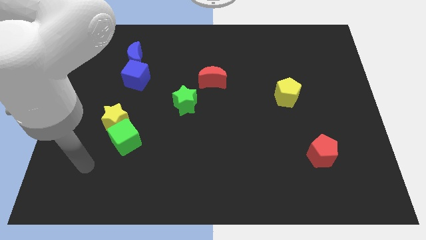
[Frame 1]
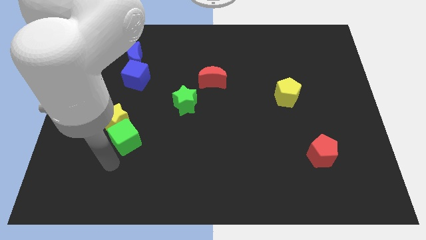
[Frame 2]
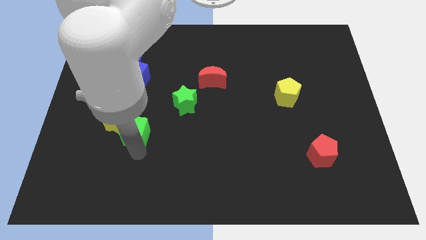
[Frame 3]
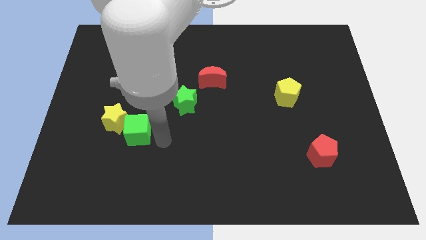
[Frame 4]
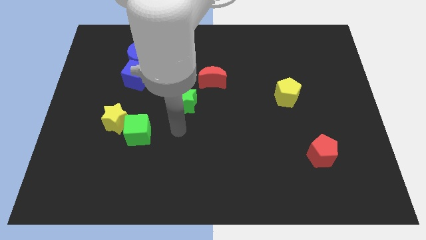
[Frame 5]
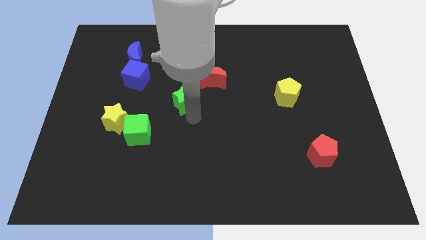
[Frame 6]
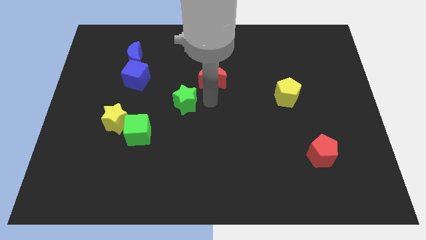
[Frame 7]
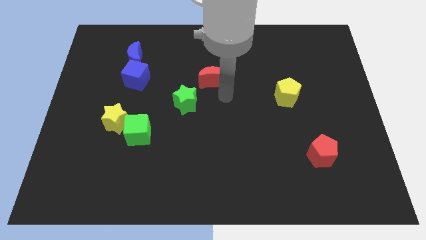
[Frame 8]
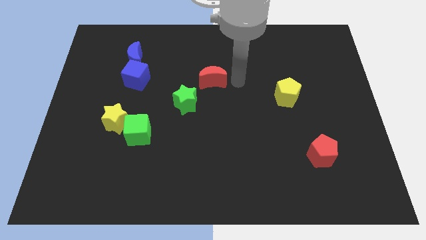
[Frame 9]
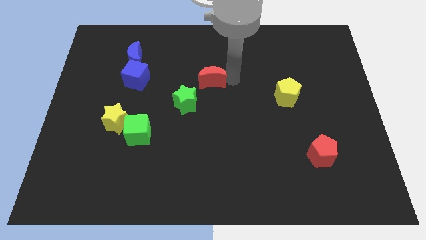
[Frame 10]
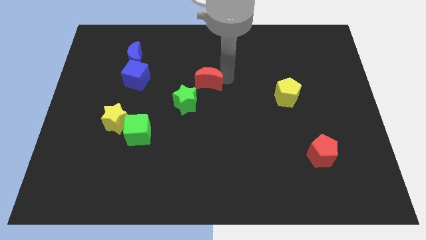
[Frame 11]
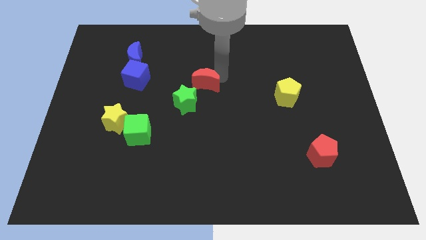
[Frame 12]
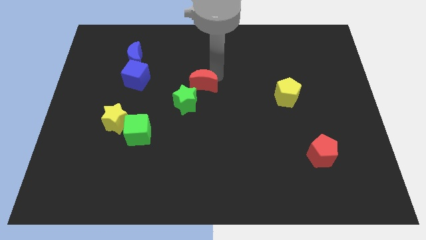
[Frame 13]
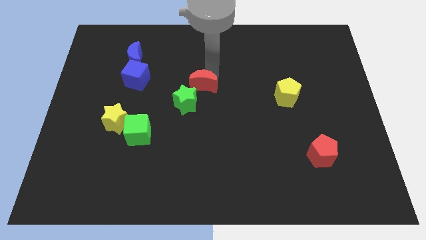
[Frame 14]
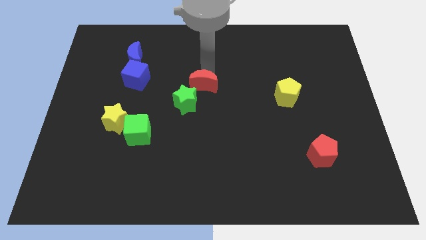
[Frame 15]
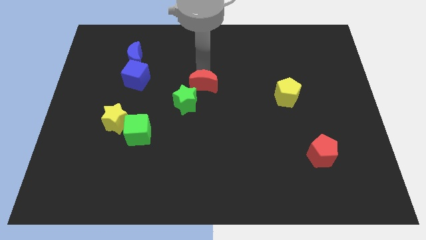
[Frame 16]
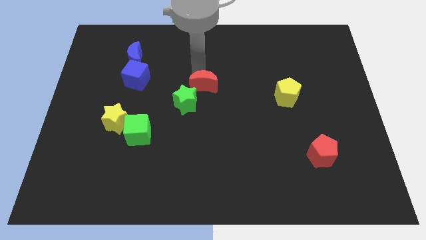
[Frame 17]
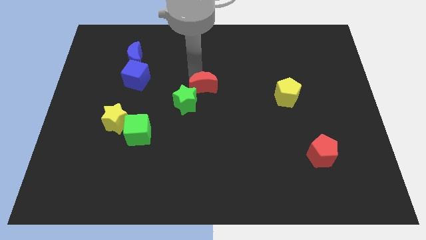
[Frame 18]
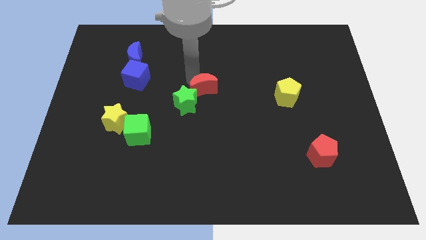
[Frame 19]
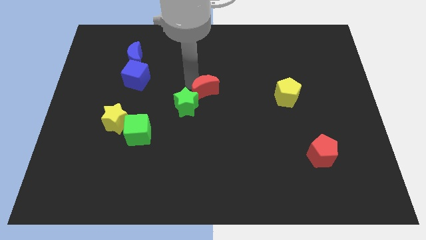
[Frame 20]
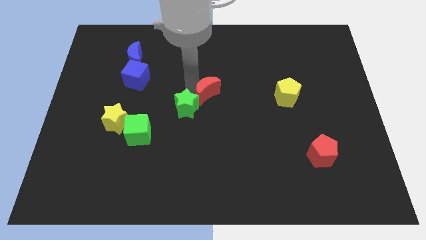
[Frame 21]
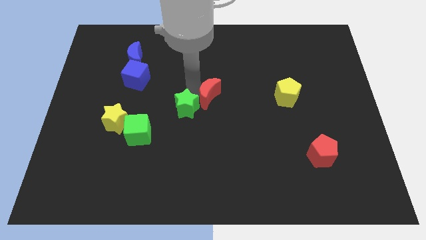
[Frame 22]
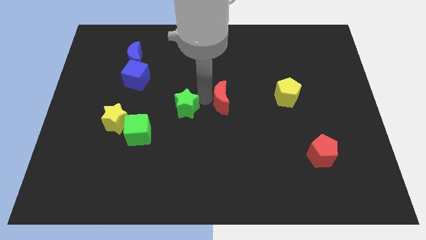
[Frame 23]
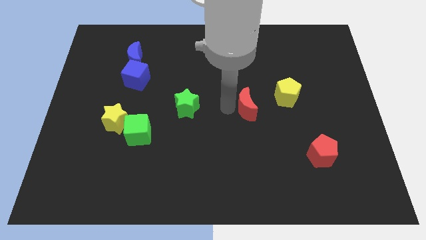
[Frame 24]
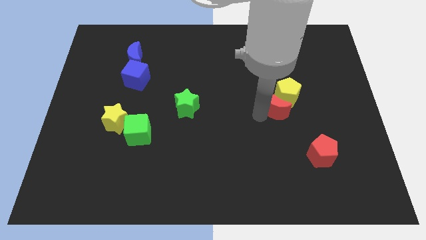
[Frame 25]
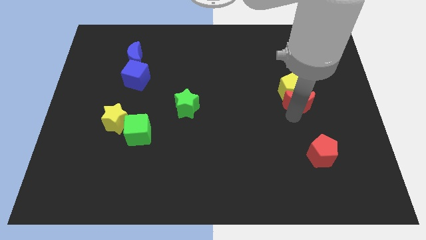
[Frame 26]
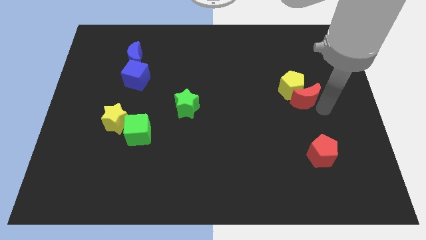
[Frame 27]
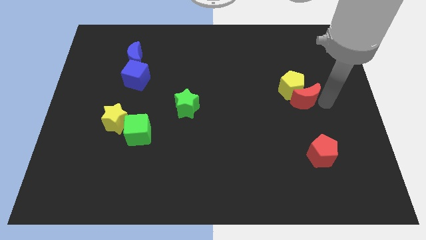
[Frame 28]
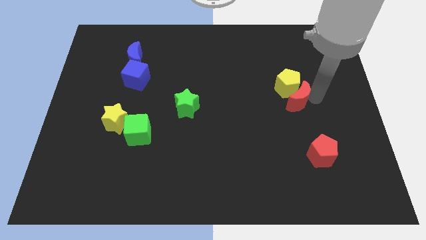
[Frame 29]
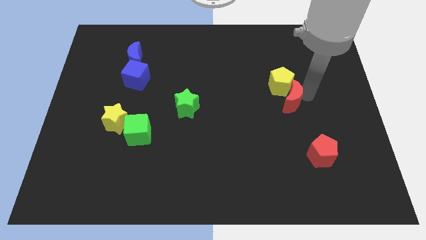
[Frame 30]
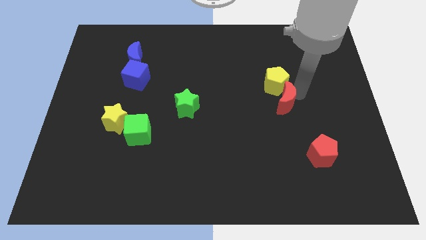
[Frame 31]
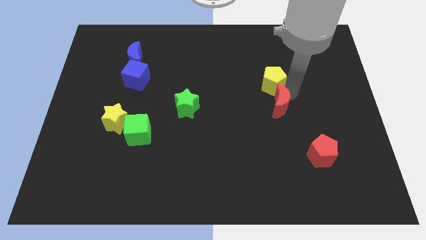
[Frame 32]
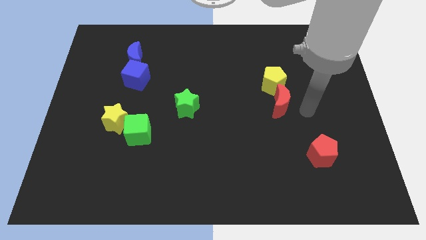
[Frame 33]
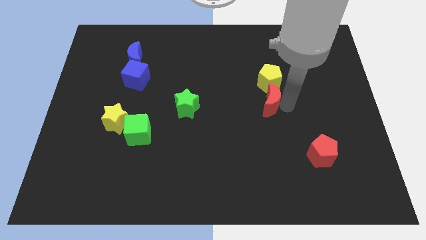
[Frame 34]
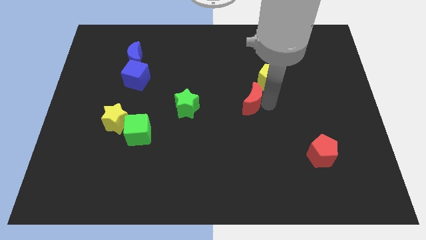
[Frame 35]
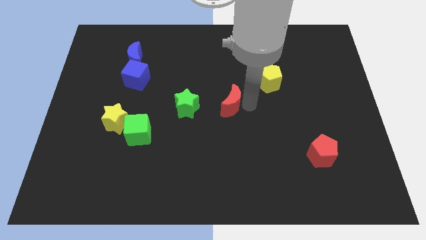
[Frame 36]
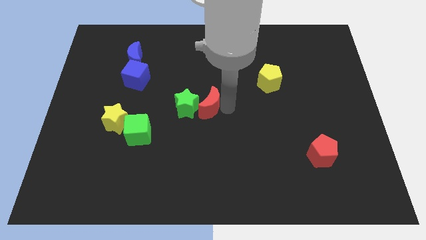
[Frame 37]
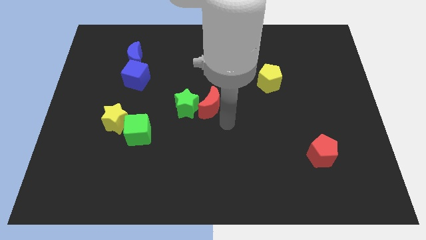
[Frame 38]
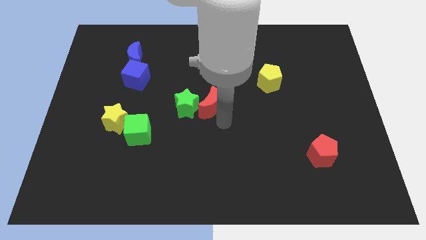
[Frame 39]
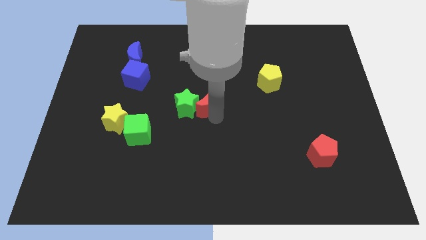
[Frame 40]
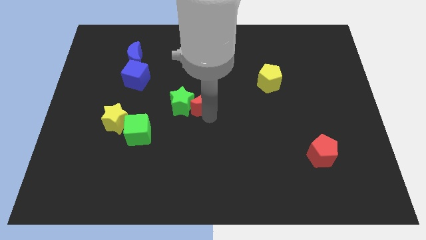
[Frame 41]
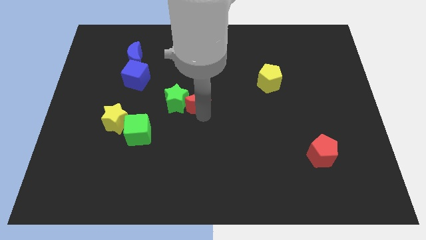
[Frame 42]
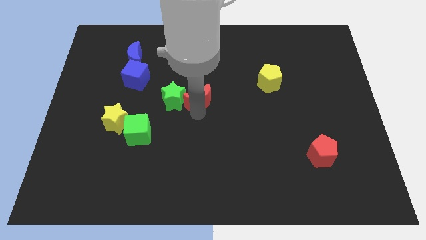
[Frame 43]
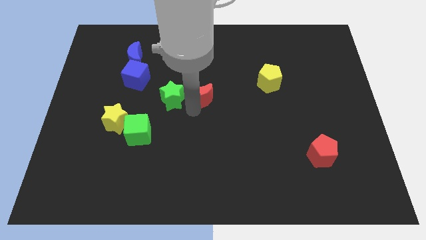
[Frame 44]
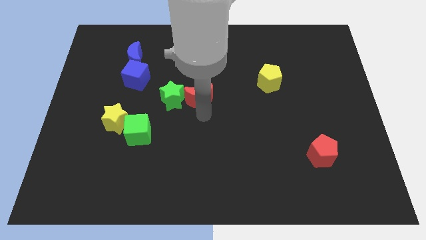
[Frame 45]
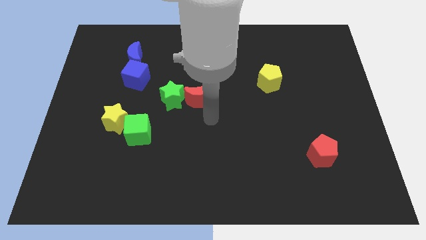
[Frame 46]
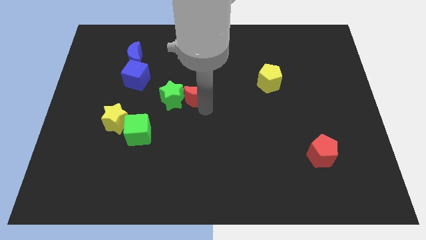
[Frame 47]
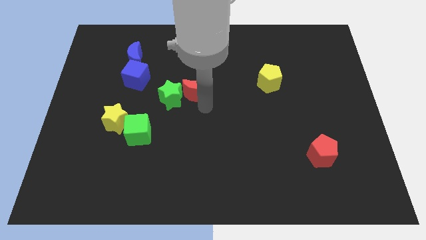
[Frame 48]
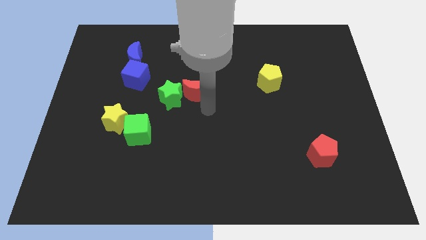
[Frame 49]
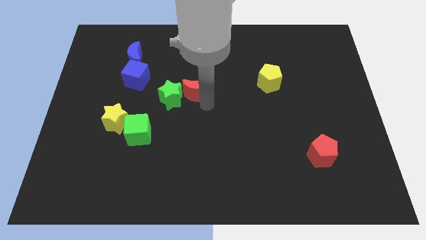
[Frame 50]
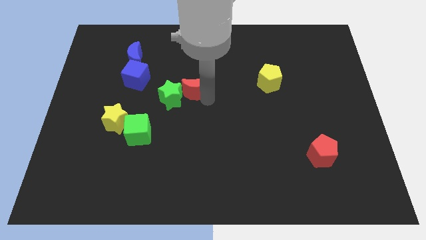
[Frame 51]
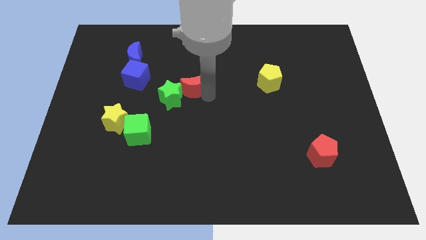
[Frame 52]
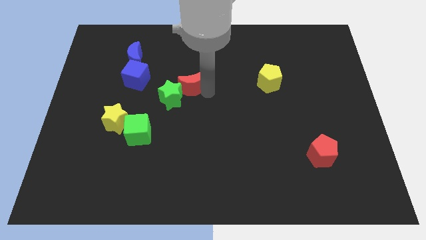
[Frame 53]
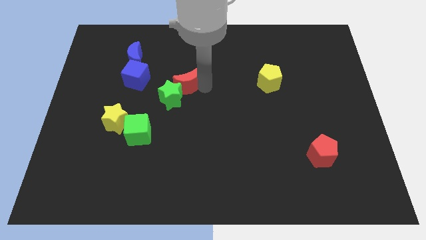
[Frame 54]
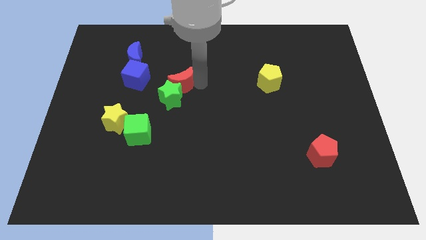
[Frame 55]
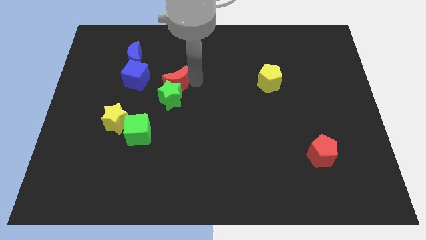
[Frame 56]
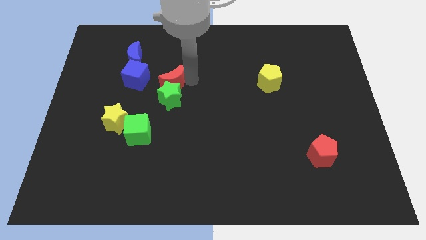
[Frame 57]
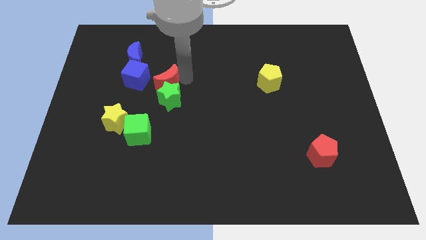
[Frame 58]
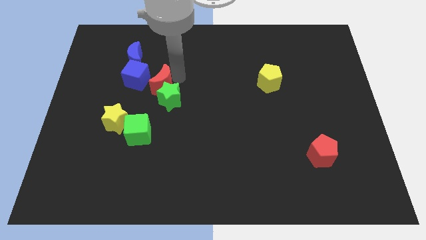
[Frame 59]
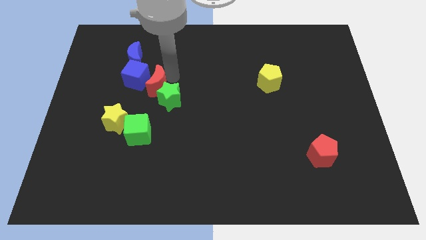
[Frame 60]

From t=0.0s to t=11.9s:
move the red moon to the blue cube

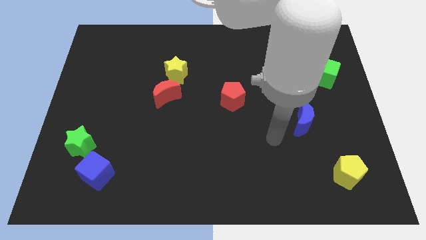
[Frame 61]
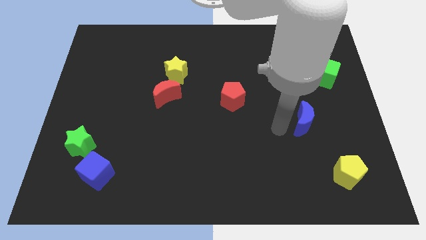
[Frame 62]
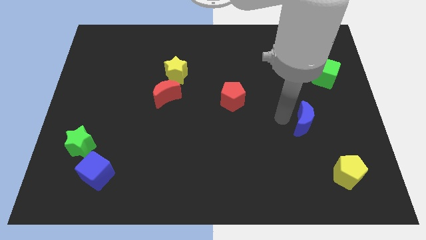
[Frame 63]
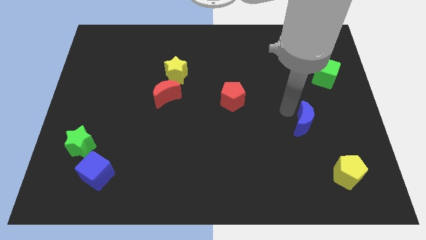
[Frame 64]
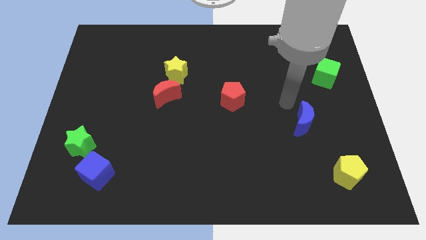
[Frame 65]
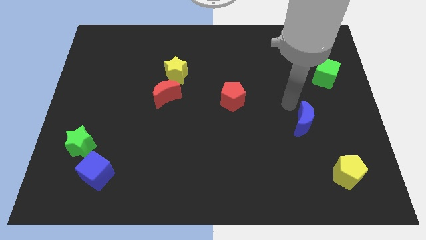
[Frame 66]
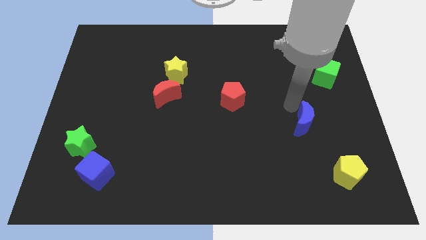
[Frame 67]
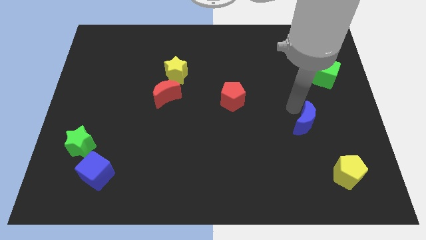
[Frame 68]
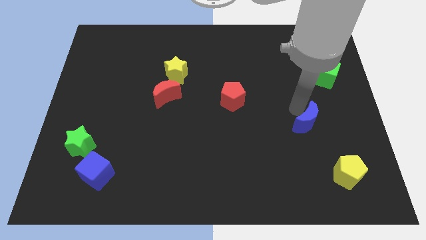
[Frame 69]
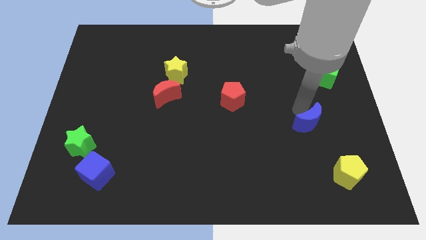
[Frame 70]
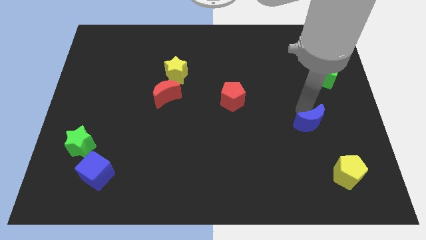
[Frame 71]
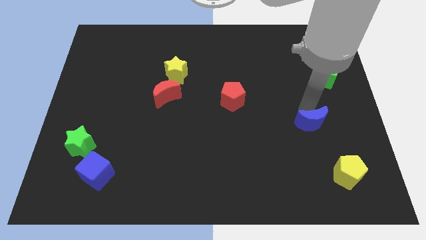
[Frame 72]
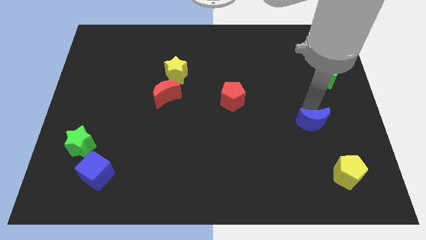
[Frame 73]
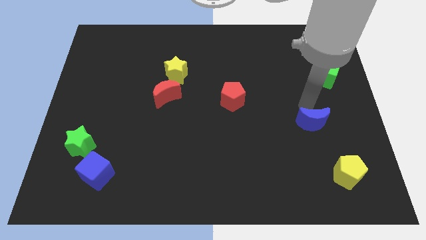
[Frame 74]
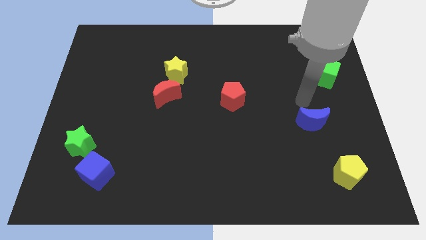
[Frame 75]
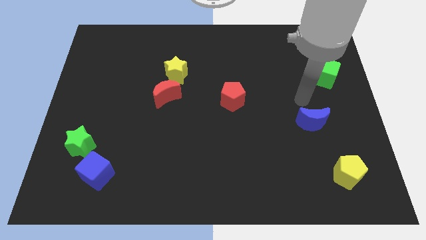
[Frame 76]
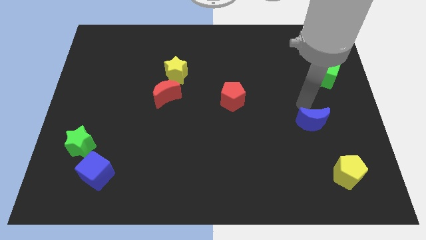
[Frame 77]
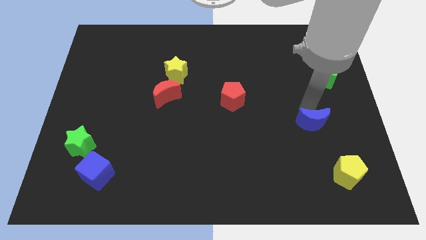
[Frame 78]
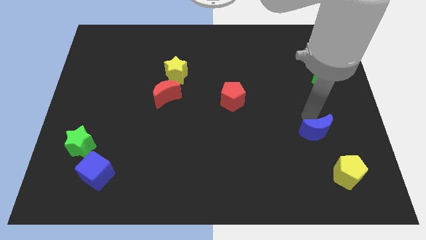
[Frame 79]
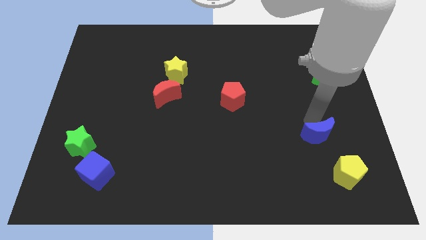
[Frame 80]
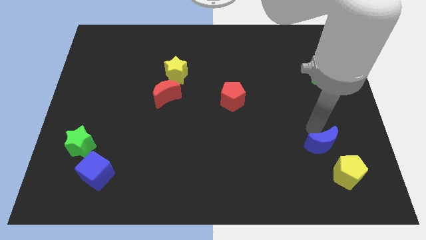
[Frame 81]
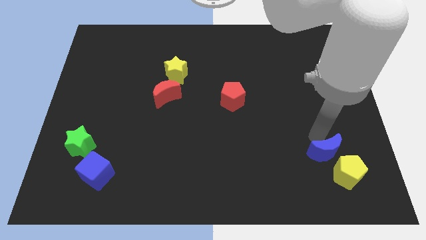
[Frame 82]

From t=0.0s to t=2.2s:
slide the blue moon close to the yellow pentagon
